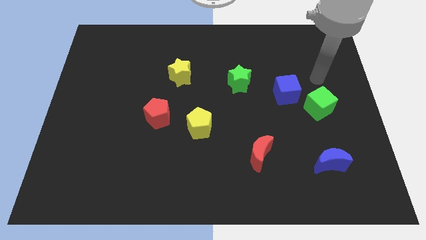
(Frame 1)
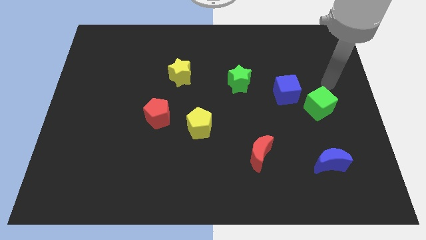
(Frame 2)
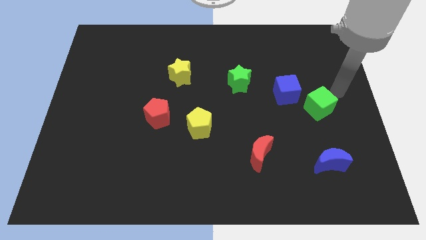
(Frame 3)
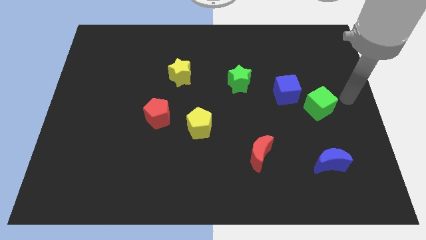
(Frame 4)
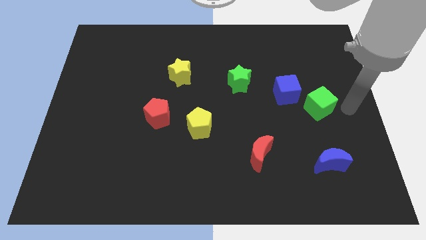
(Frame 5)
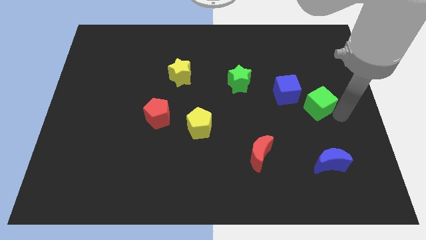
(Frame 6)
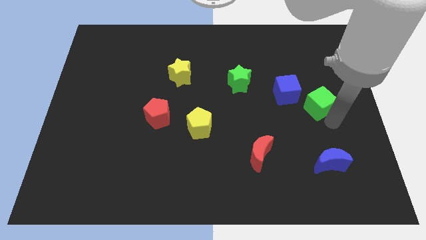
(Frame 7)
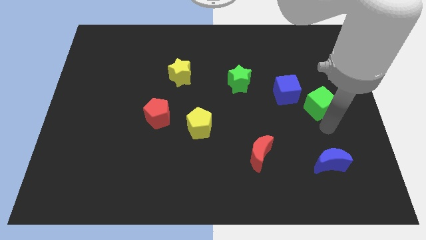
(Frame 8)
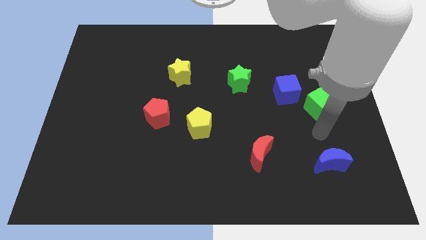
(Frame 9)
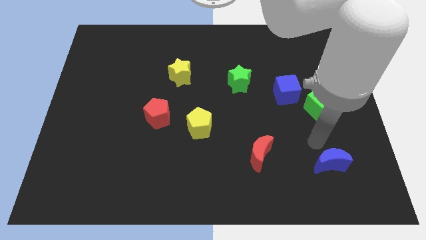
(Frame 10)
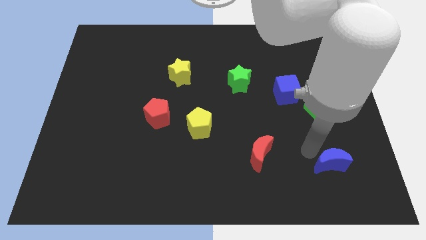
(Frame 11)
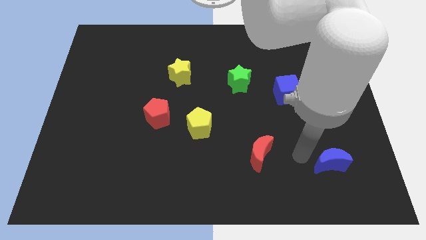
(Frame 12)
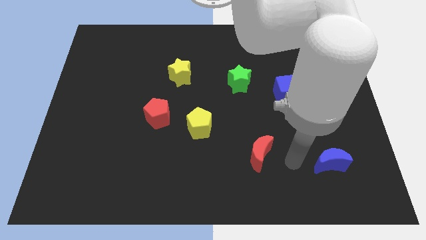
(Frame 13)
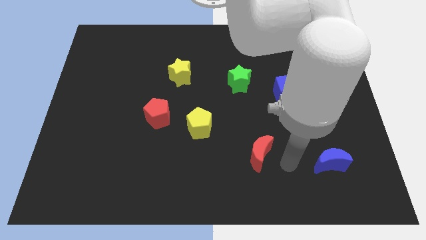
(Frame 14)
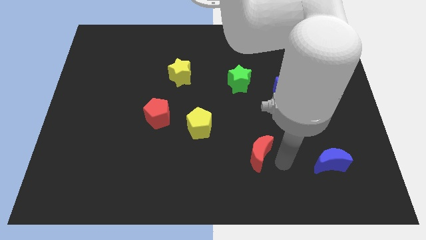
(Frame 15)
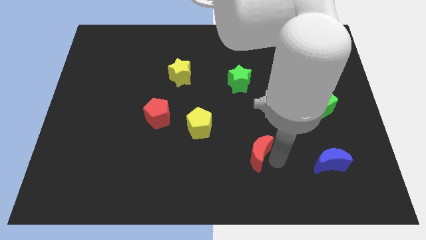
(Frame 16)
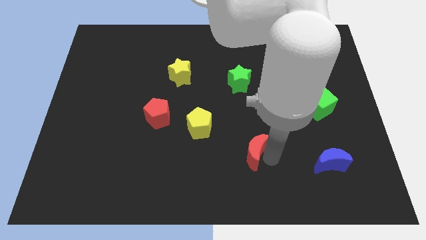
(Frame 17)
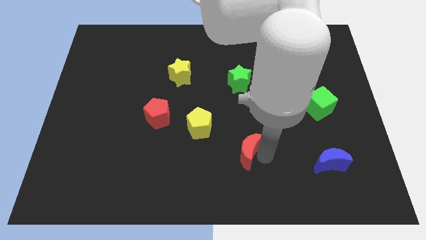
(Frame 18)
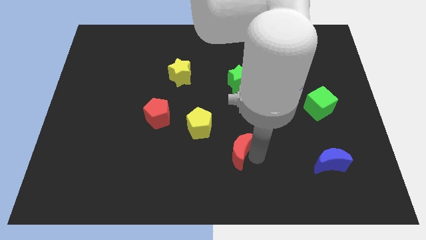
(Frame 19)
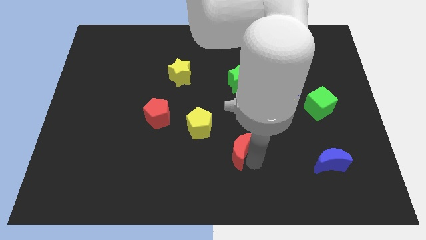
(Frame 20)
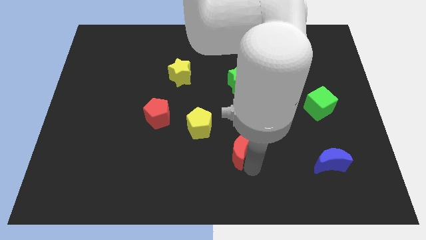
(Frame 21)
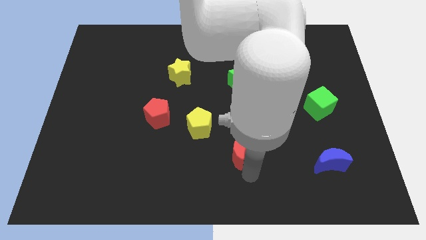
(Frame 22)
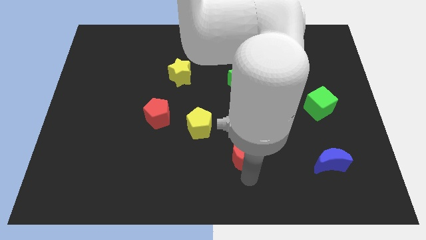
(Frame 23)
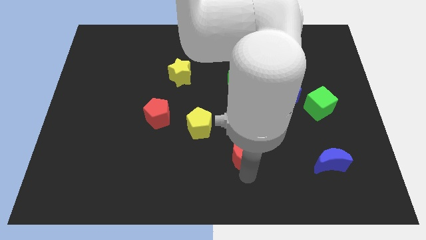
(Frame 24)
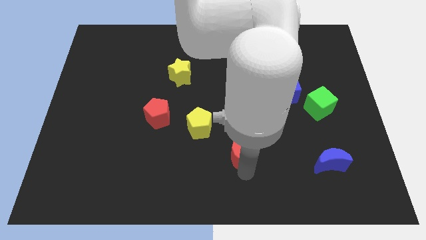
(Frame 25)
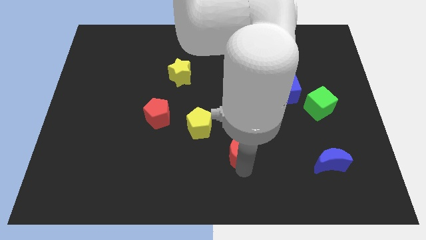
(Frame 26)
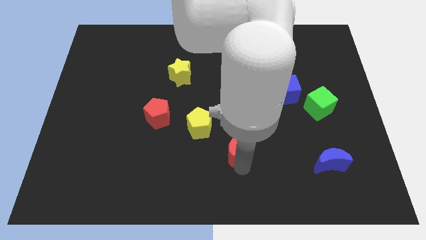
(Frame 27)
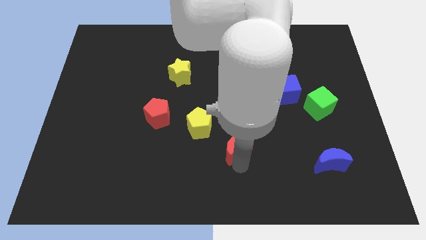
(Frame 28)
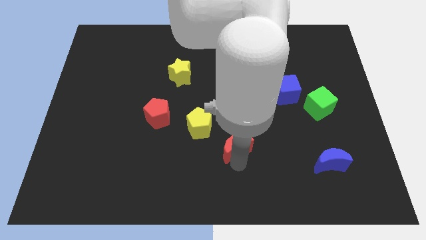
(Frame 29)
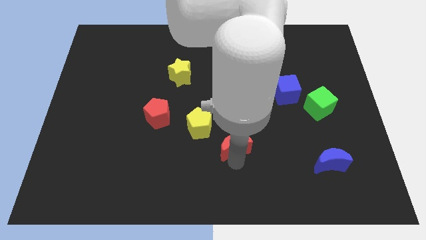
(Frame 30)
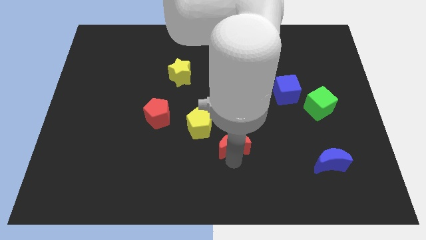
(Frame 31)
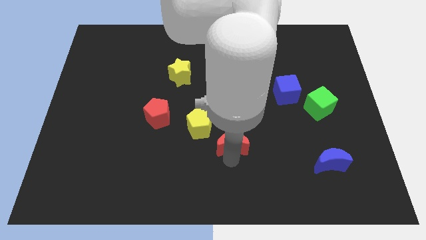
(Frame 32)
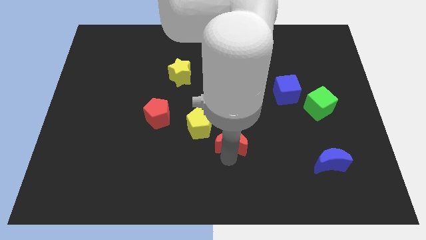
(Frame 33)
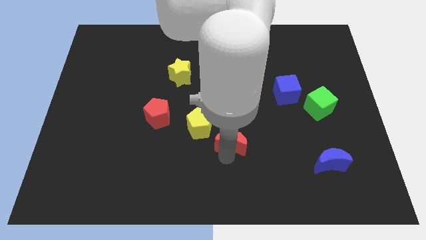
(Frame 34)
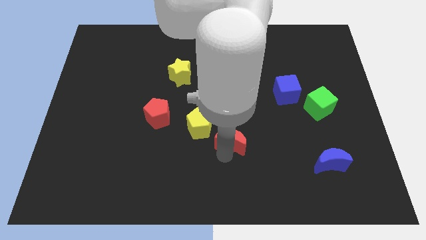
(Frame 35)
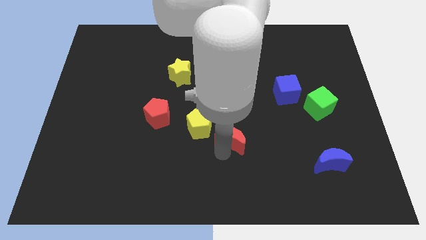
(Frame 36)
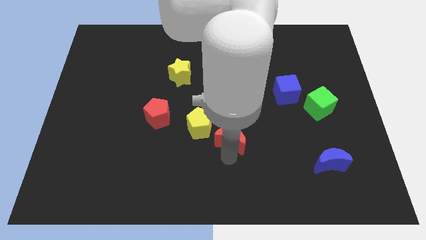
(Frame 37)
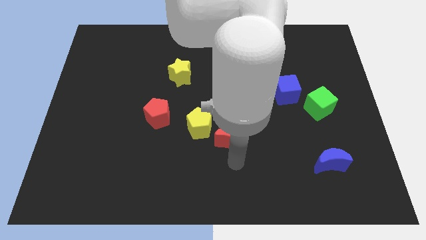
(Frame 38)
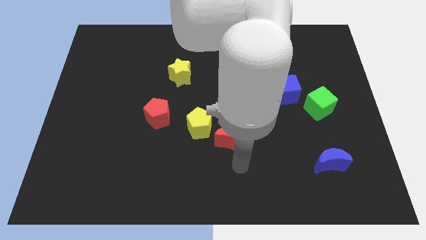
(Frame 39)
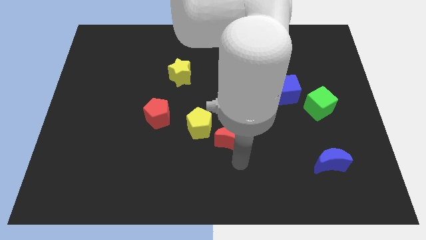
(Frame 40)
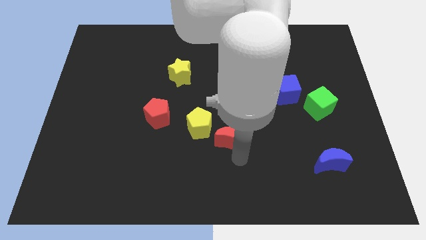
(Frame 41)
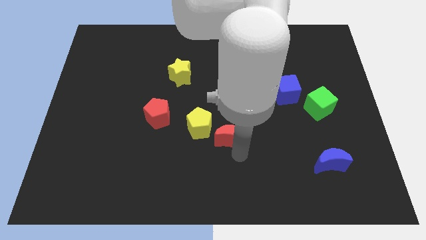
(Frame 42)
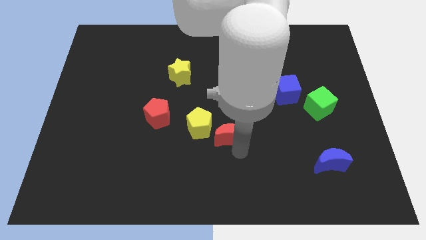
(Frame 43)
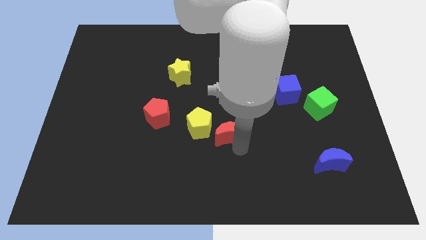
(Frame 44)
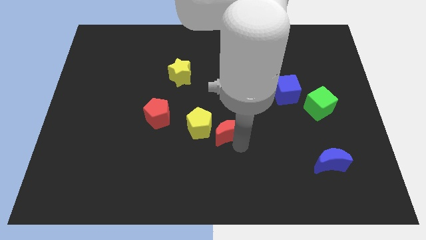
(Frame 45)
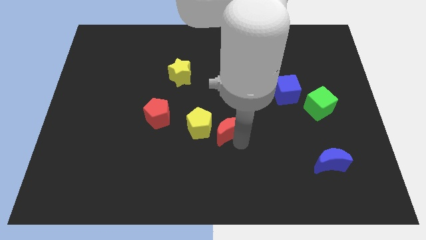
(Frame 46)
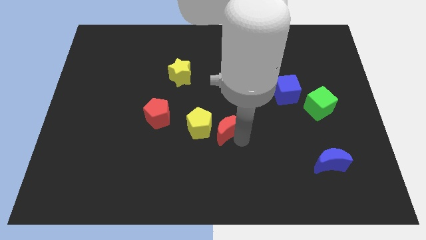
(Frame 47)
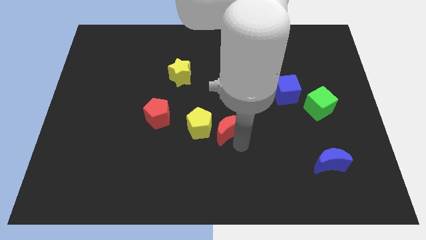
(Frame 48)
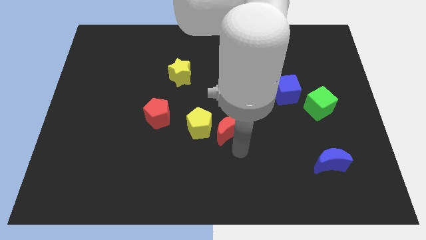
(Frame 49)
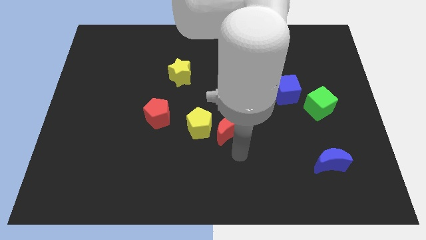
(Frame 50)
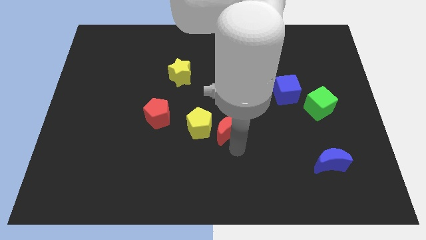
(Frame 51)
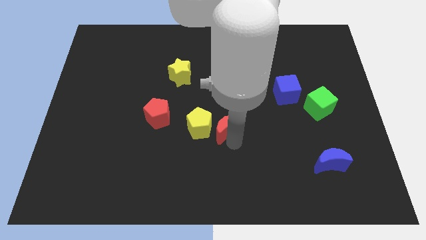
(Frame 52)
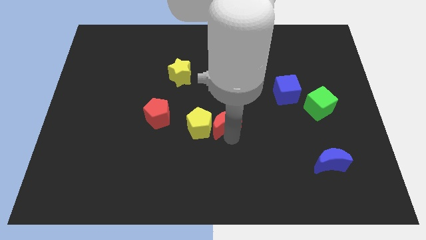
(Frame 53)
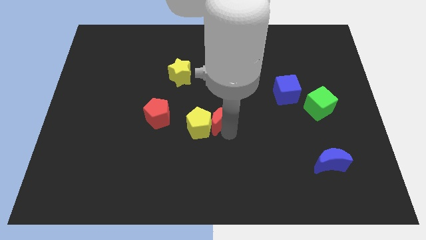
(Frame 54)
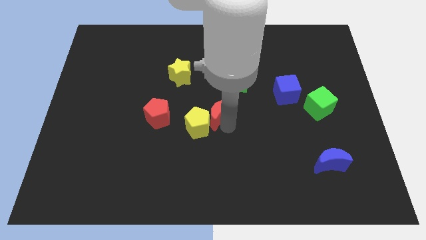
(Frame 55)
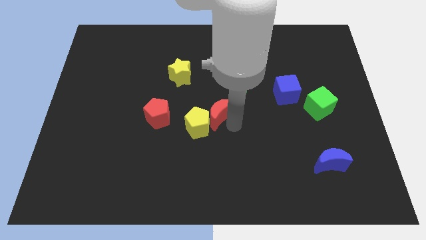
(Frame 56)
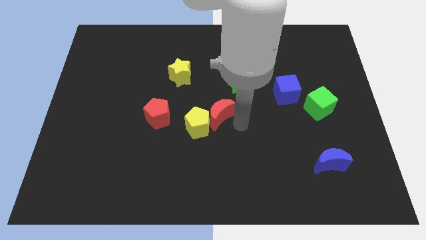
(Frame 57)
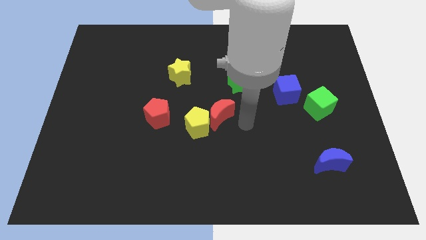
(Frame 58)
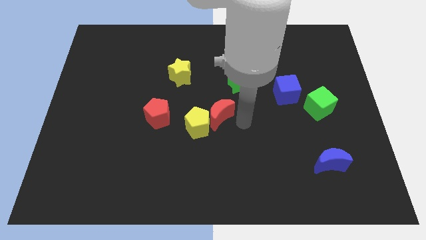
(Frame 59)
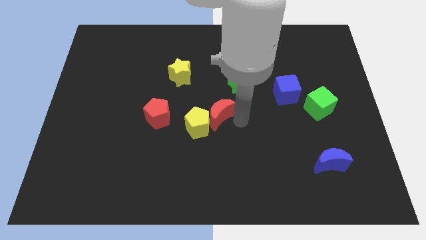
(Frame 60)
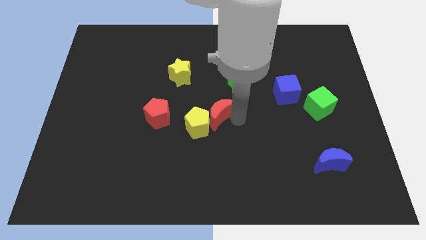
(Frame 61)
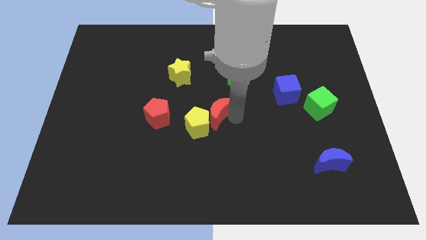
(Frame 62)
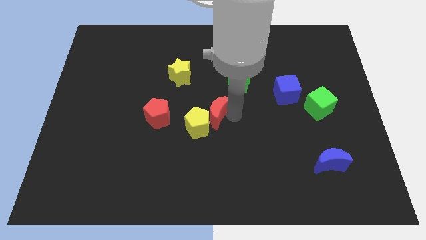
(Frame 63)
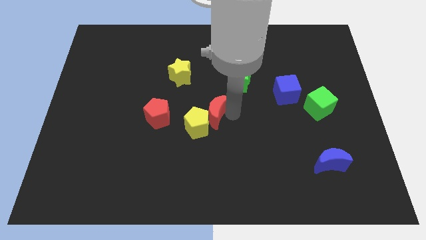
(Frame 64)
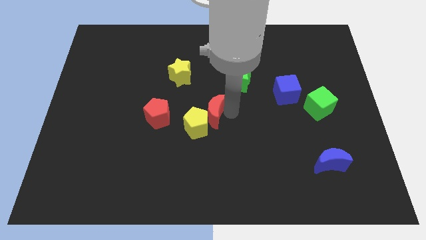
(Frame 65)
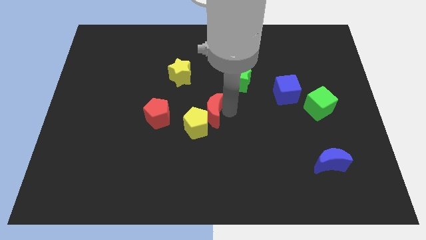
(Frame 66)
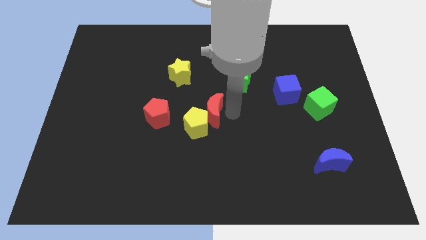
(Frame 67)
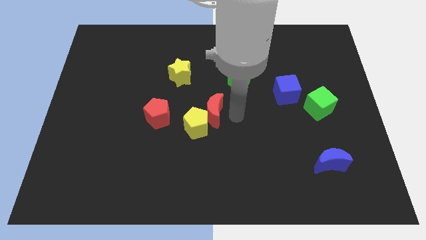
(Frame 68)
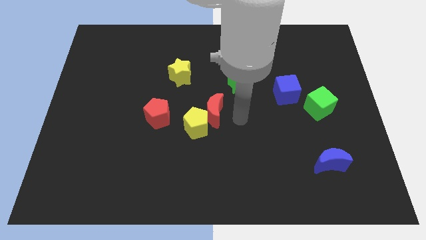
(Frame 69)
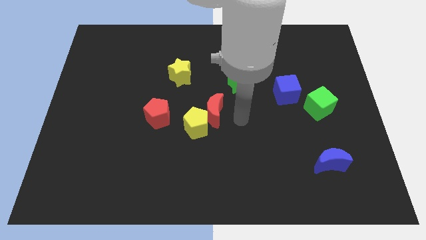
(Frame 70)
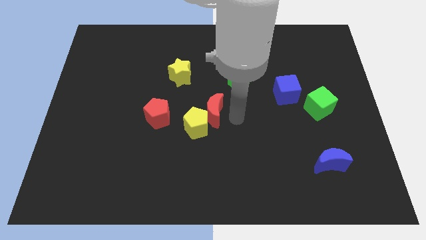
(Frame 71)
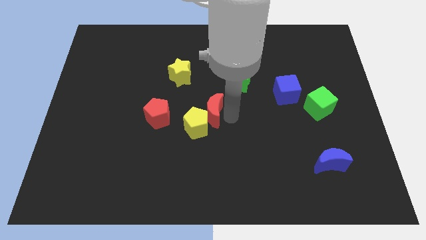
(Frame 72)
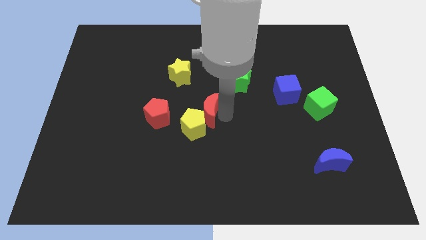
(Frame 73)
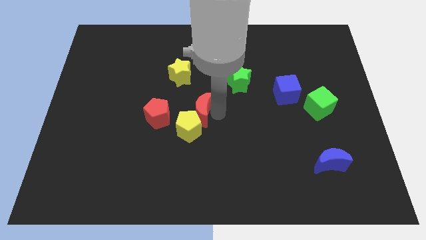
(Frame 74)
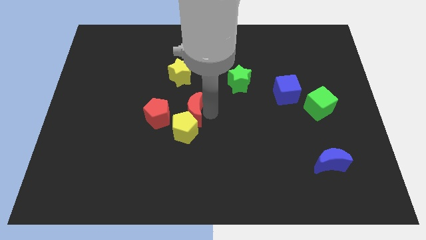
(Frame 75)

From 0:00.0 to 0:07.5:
push the red moon below the yellow star

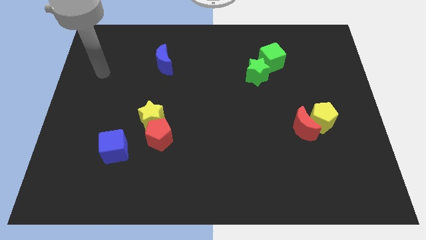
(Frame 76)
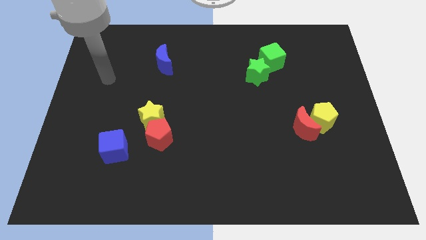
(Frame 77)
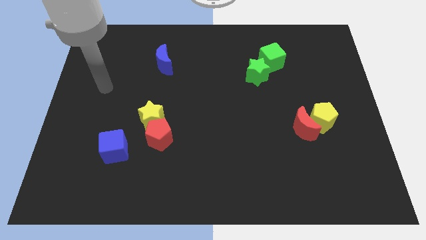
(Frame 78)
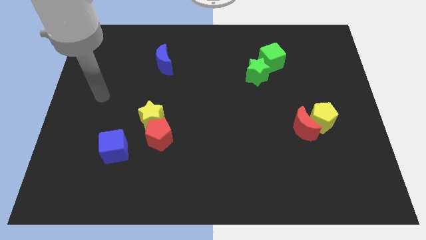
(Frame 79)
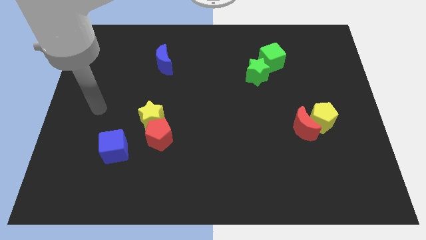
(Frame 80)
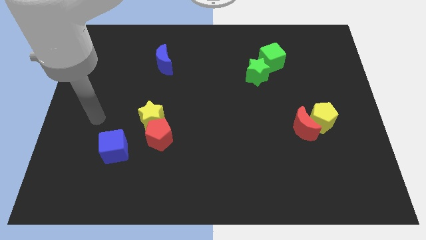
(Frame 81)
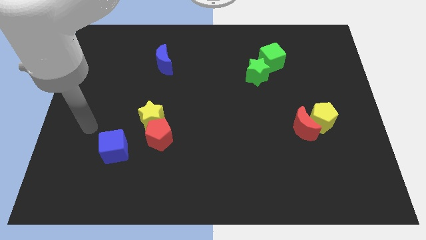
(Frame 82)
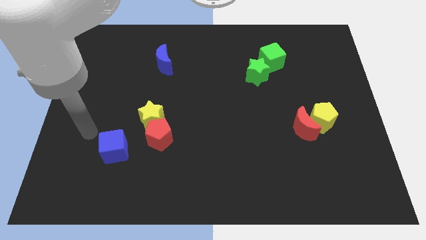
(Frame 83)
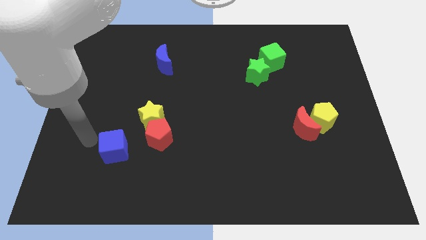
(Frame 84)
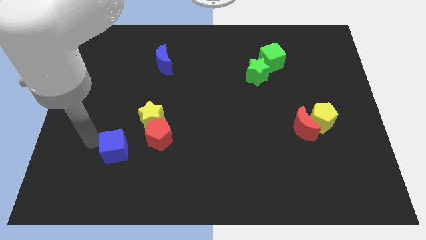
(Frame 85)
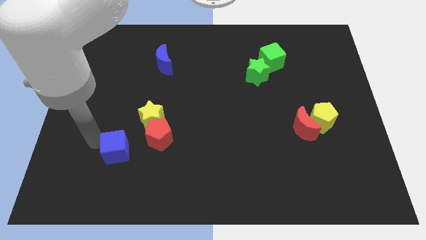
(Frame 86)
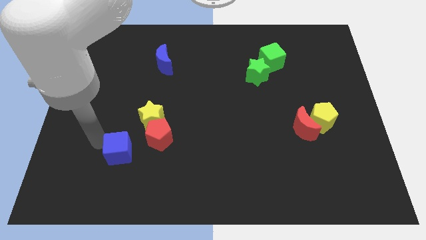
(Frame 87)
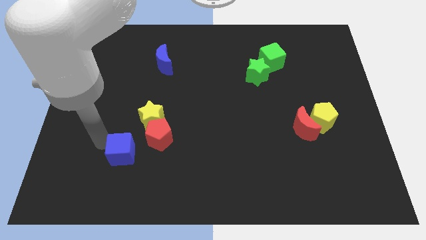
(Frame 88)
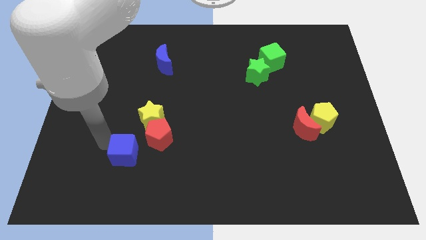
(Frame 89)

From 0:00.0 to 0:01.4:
put the blue cube below the yellow star
